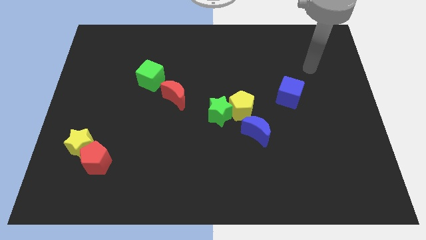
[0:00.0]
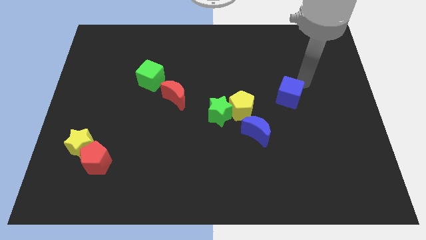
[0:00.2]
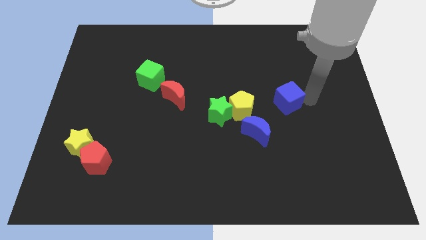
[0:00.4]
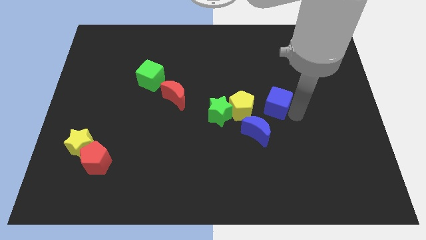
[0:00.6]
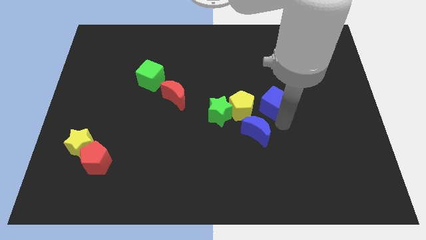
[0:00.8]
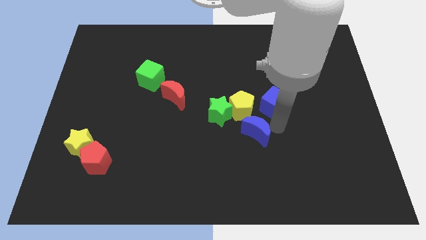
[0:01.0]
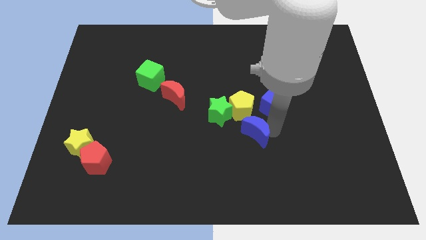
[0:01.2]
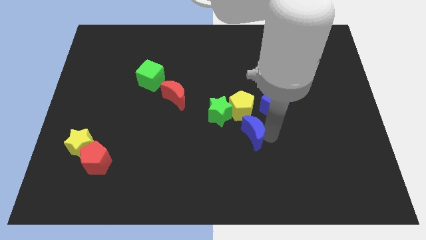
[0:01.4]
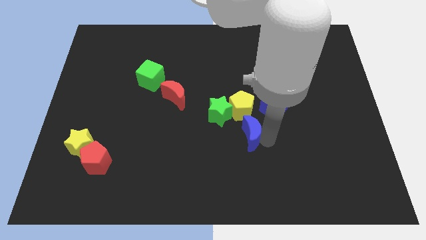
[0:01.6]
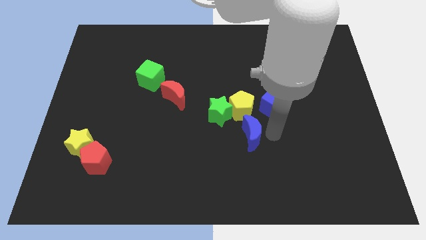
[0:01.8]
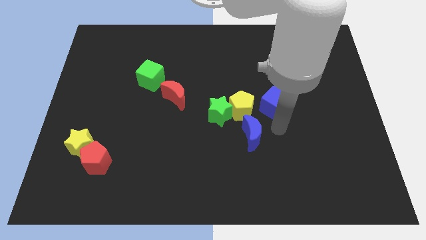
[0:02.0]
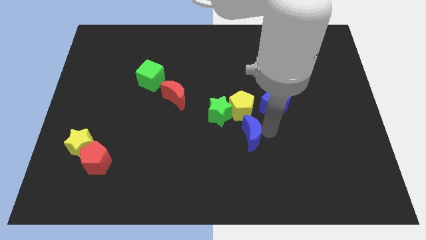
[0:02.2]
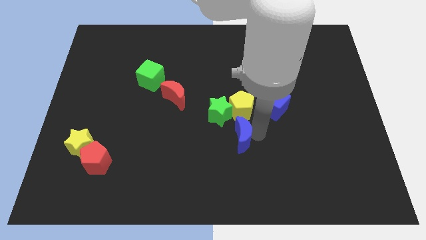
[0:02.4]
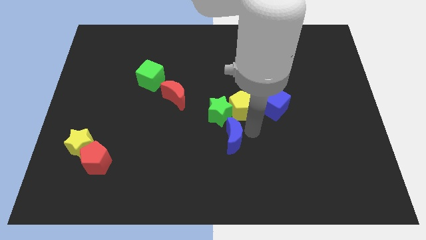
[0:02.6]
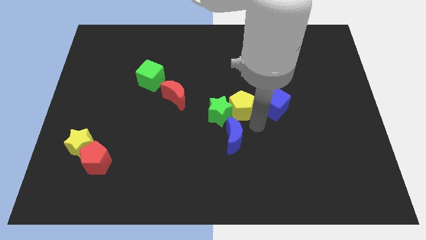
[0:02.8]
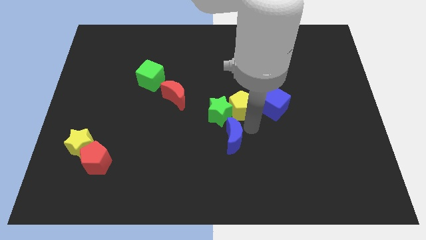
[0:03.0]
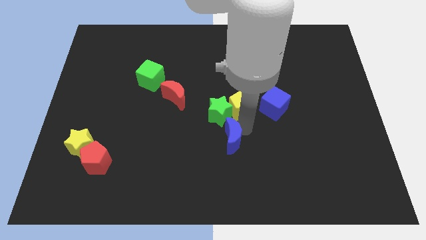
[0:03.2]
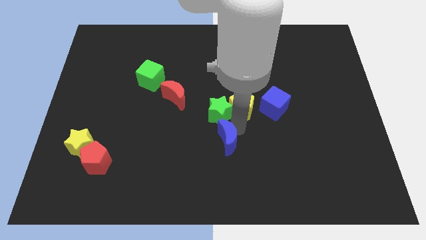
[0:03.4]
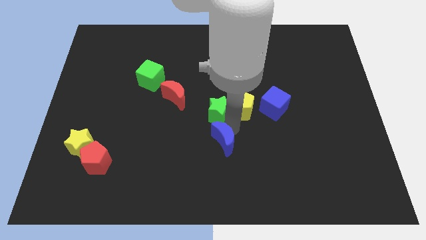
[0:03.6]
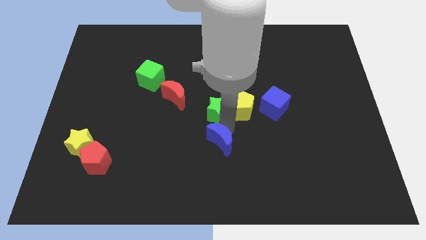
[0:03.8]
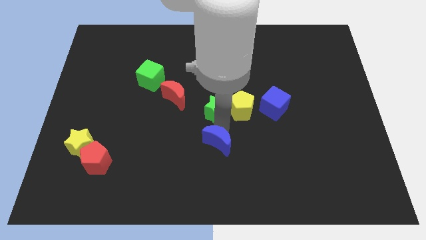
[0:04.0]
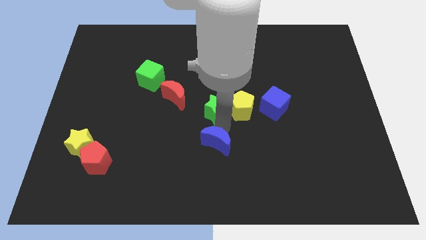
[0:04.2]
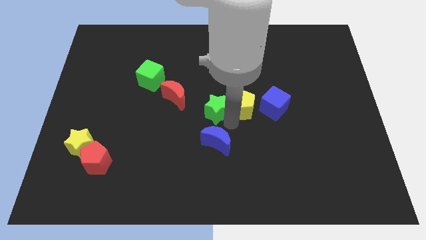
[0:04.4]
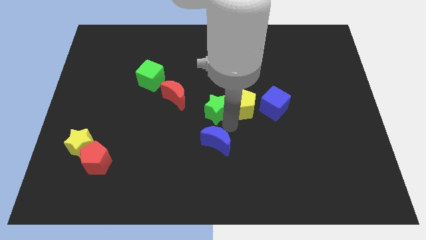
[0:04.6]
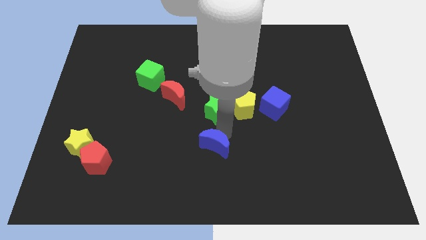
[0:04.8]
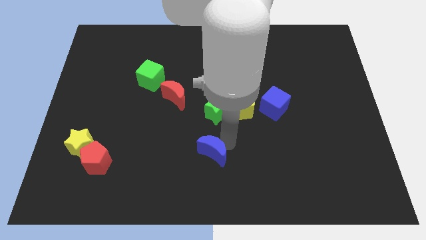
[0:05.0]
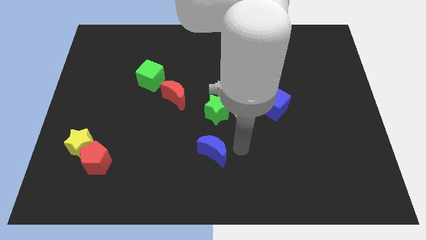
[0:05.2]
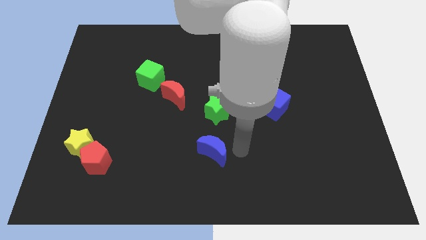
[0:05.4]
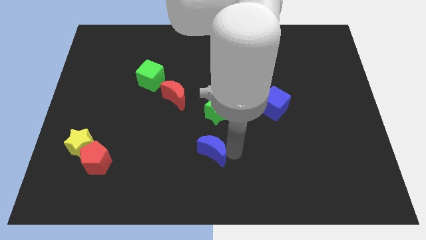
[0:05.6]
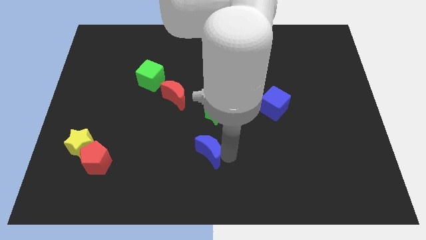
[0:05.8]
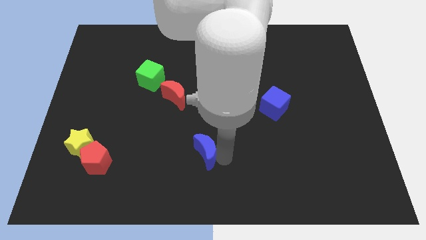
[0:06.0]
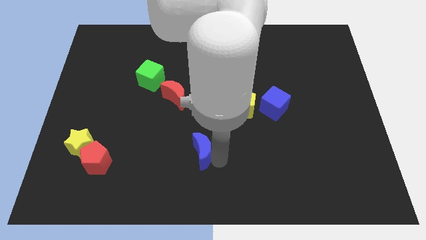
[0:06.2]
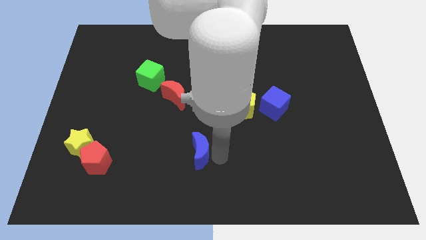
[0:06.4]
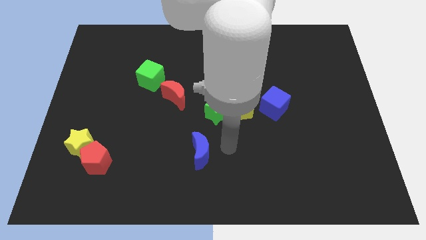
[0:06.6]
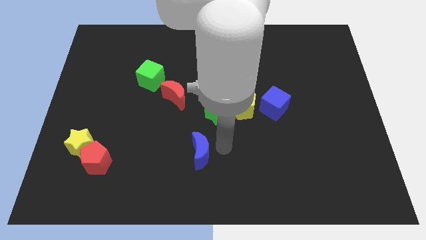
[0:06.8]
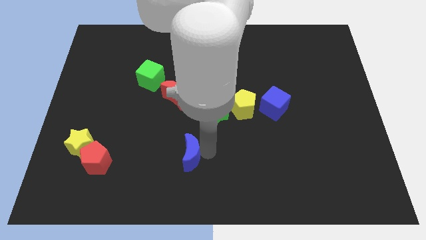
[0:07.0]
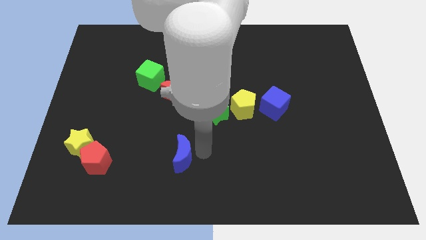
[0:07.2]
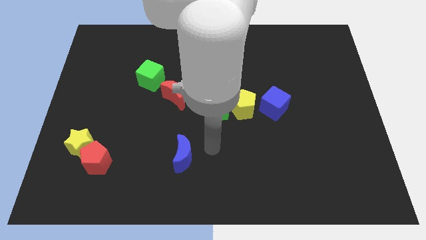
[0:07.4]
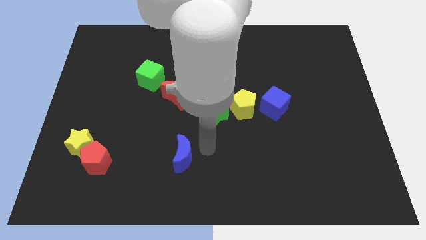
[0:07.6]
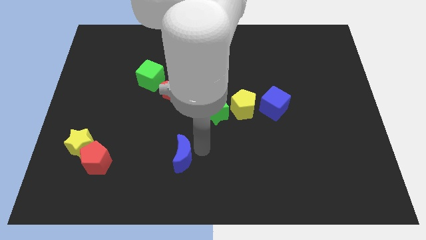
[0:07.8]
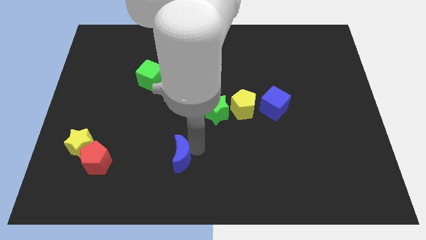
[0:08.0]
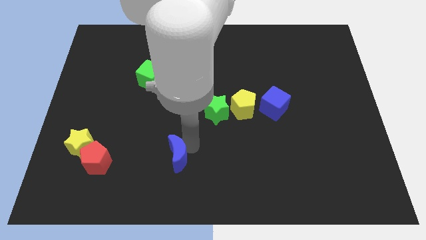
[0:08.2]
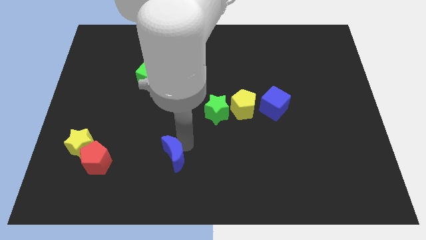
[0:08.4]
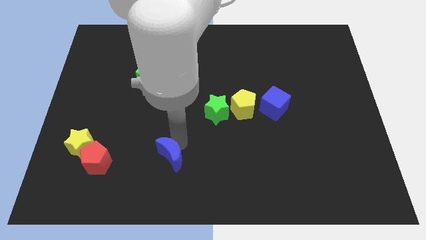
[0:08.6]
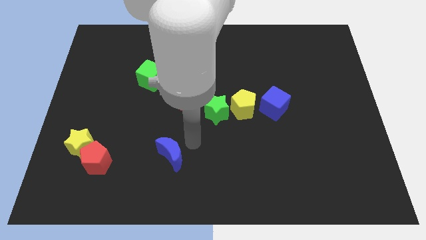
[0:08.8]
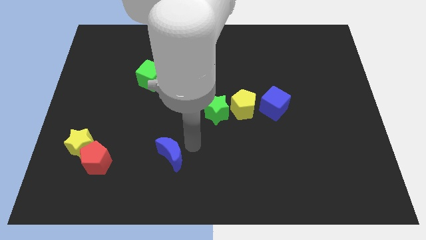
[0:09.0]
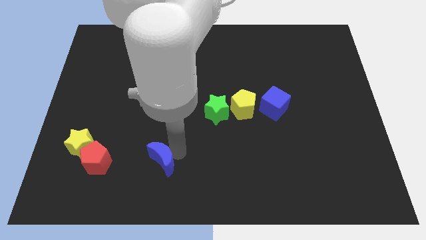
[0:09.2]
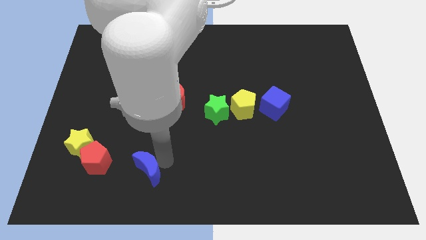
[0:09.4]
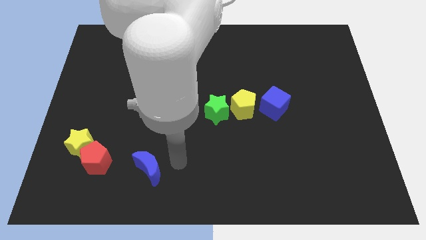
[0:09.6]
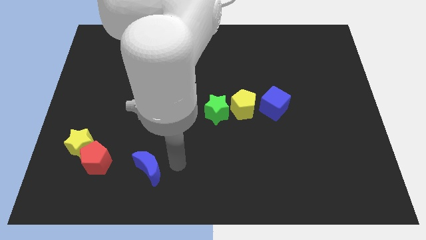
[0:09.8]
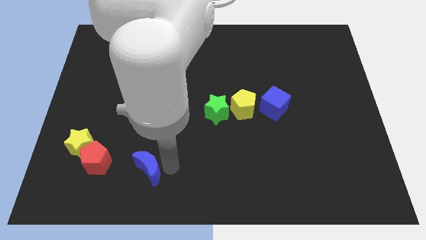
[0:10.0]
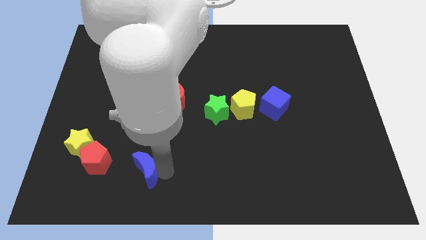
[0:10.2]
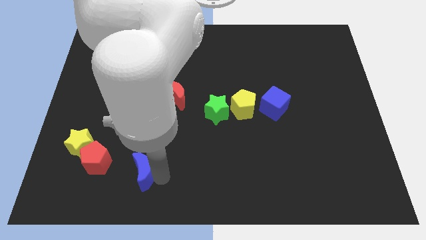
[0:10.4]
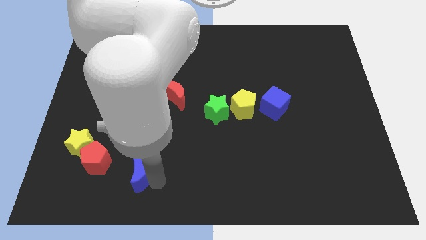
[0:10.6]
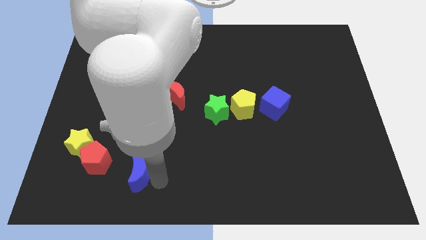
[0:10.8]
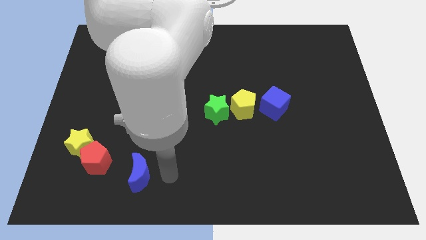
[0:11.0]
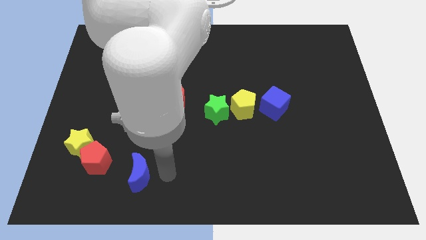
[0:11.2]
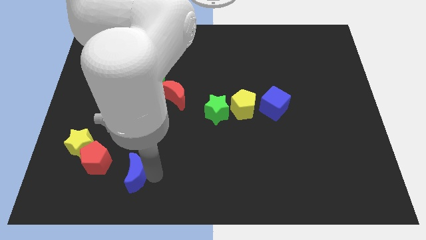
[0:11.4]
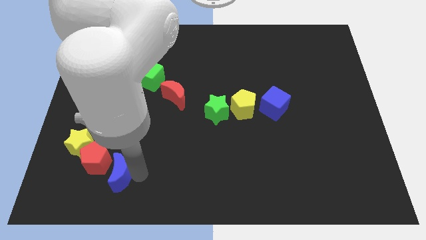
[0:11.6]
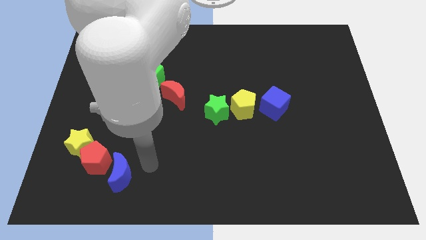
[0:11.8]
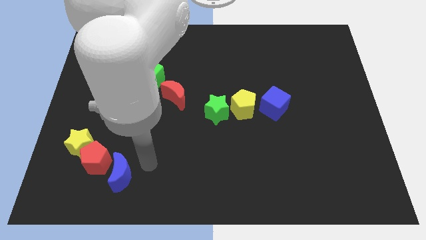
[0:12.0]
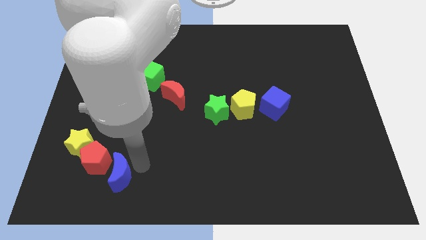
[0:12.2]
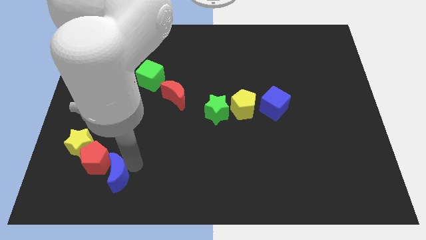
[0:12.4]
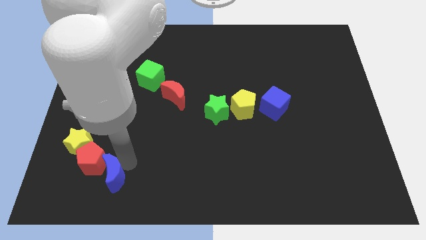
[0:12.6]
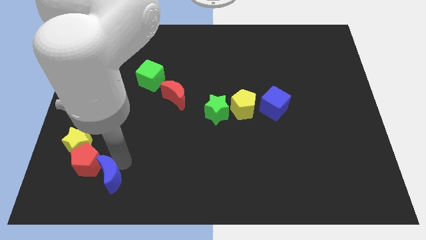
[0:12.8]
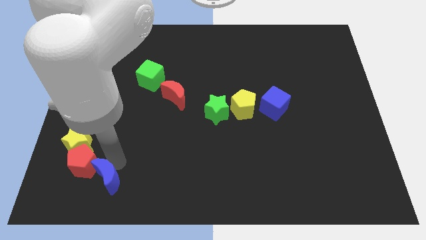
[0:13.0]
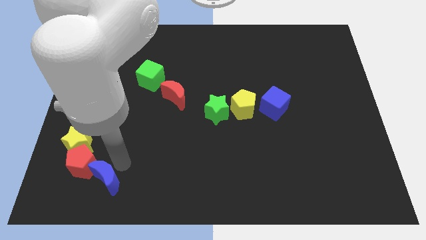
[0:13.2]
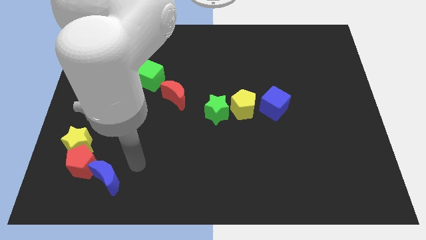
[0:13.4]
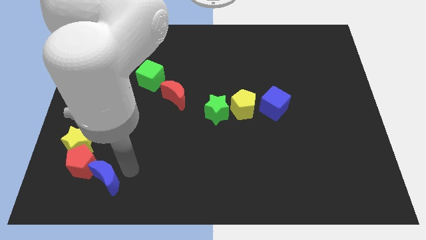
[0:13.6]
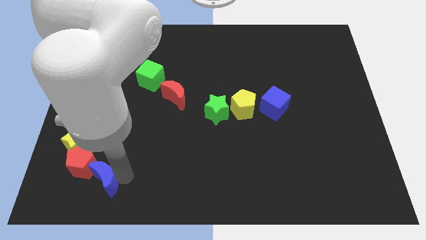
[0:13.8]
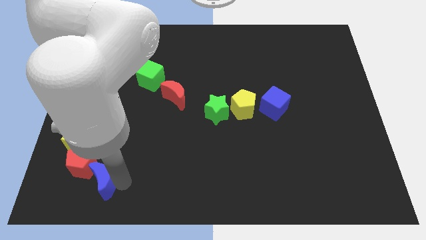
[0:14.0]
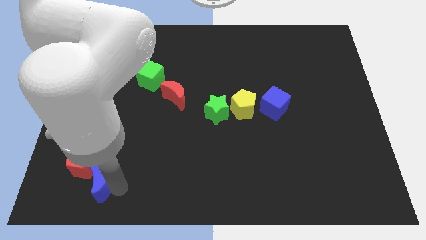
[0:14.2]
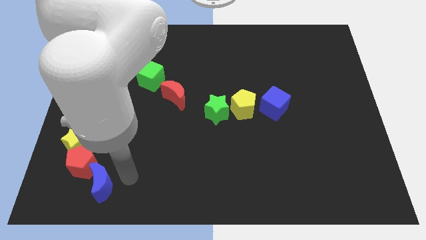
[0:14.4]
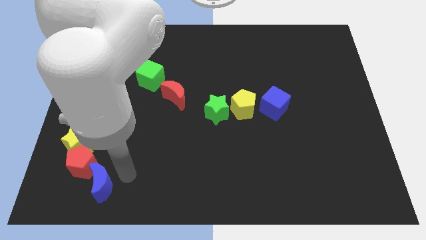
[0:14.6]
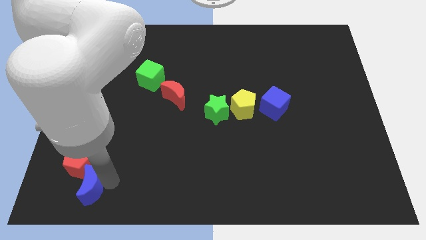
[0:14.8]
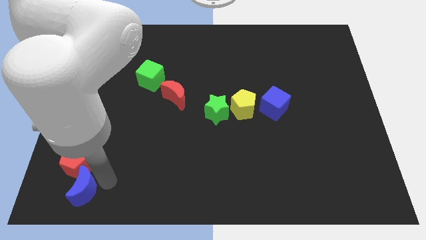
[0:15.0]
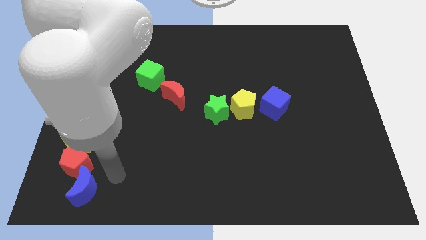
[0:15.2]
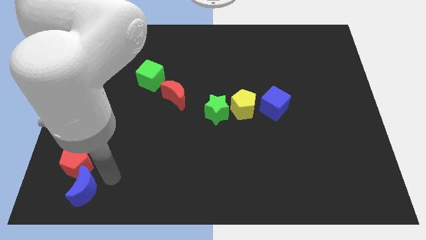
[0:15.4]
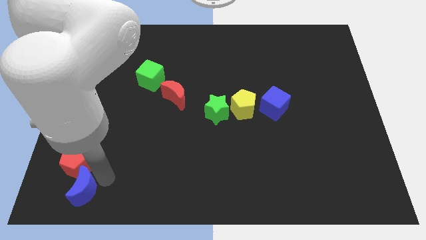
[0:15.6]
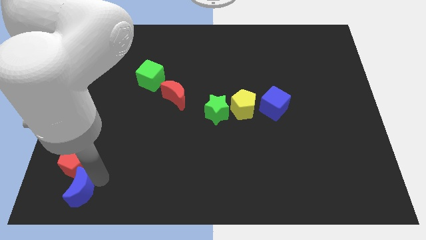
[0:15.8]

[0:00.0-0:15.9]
move the blue moon to the bottom left of the board
